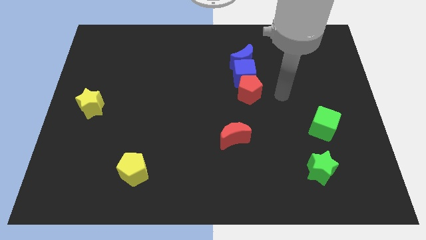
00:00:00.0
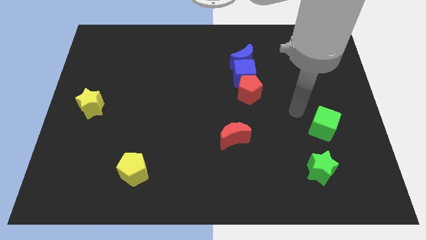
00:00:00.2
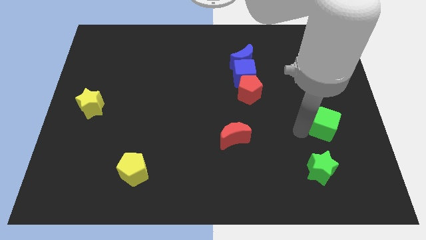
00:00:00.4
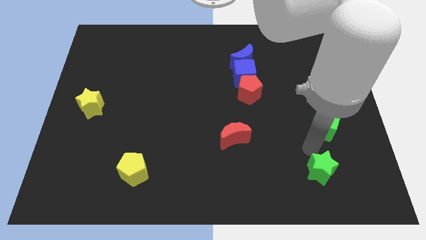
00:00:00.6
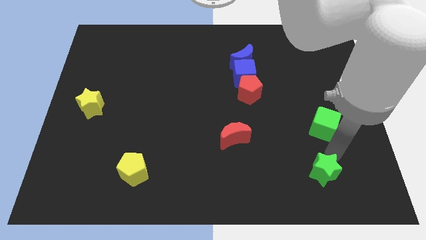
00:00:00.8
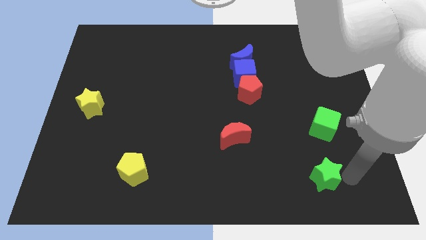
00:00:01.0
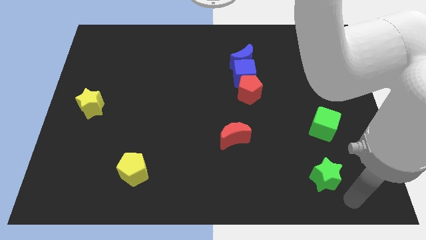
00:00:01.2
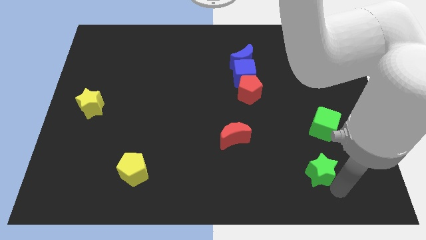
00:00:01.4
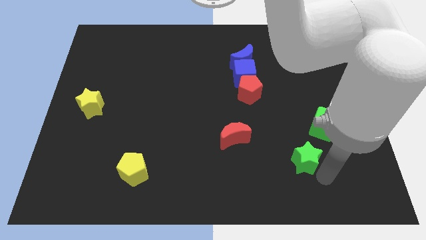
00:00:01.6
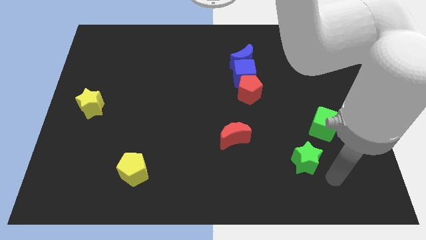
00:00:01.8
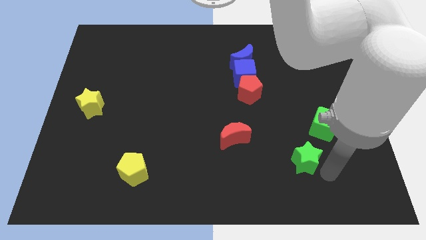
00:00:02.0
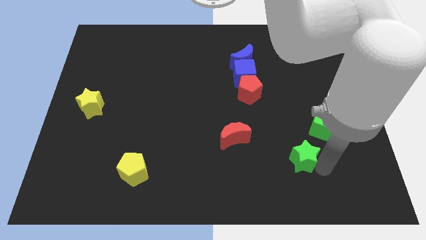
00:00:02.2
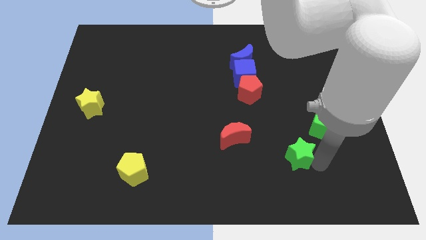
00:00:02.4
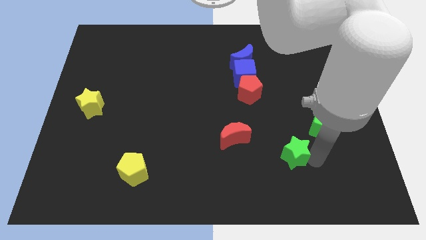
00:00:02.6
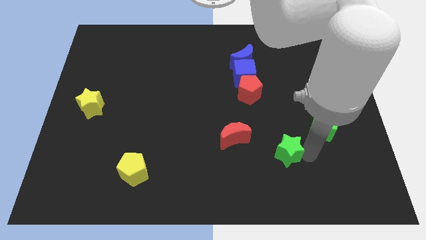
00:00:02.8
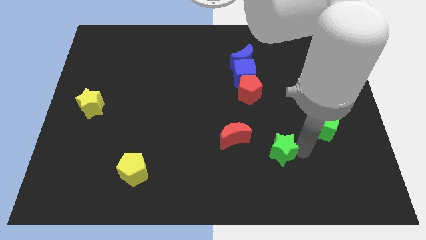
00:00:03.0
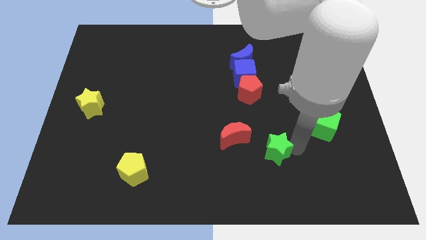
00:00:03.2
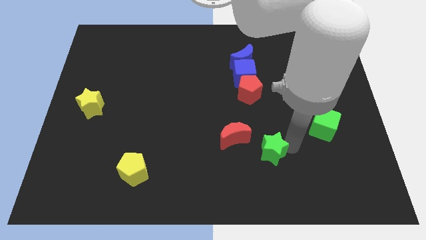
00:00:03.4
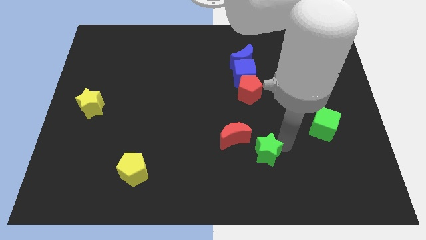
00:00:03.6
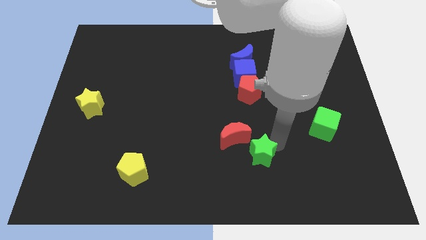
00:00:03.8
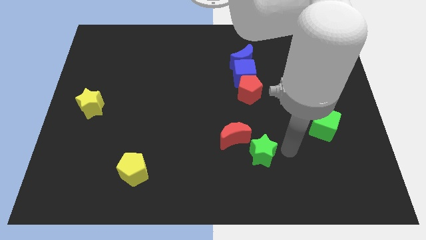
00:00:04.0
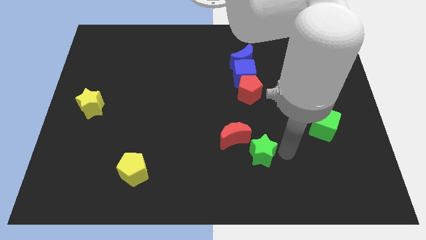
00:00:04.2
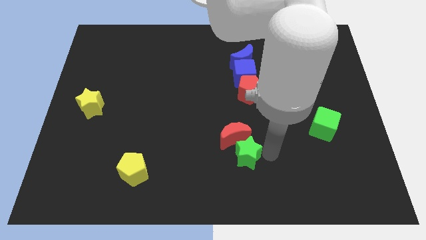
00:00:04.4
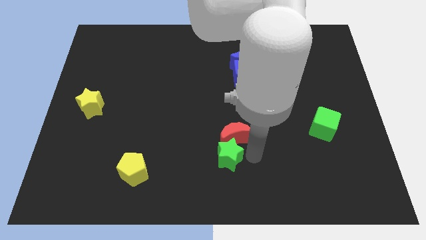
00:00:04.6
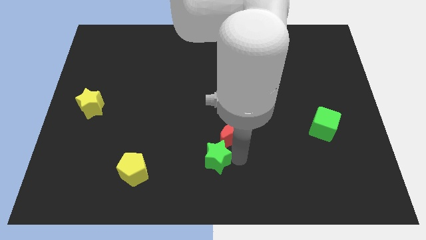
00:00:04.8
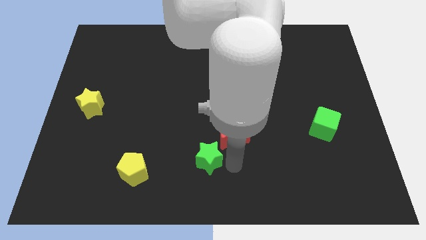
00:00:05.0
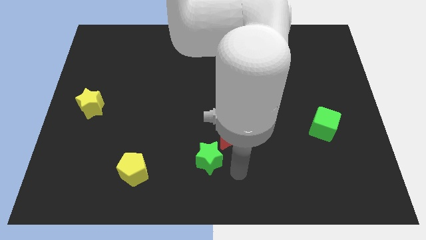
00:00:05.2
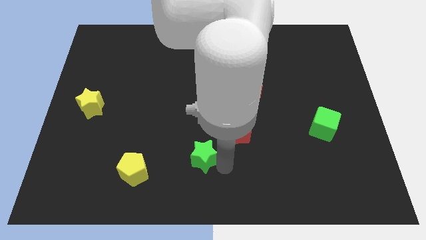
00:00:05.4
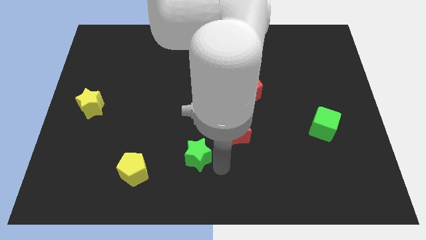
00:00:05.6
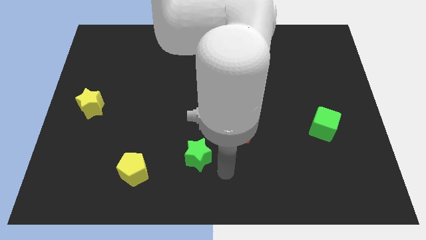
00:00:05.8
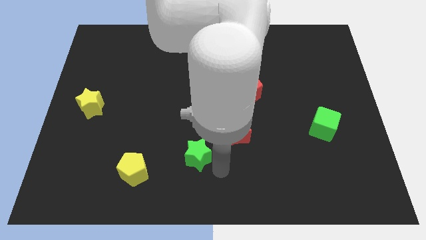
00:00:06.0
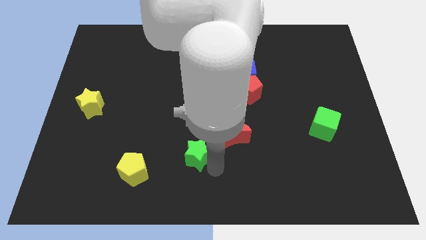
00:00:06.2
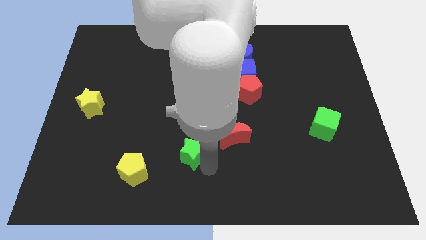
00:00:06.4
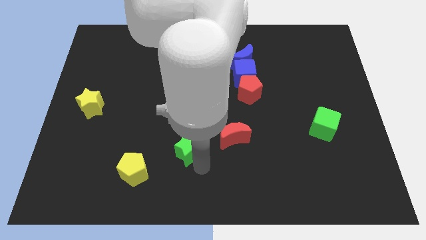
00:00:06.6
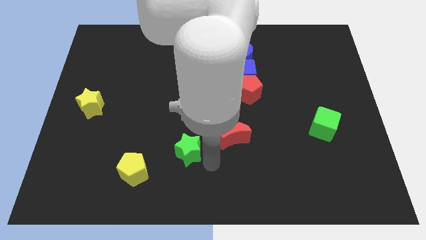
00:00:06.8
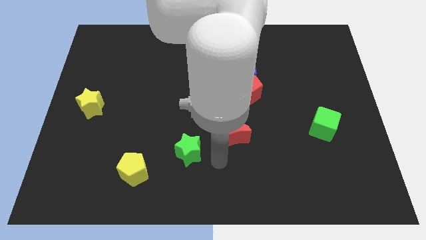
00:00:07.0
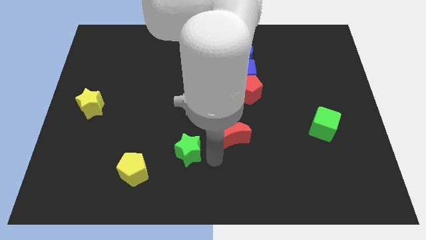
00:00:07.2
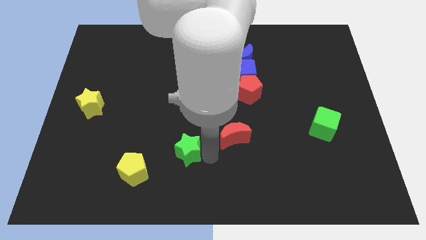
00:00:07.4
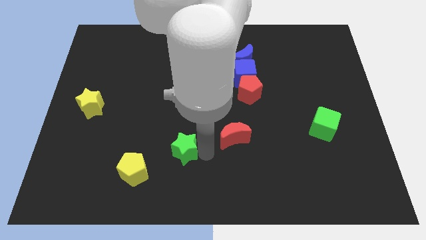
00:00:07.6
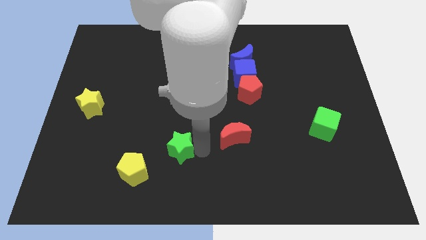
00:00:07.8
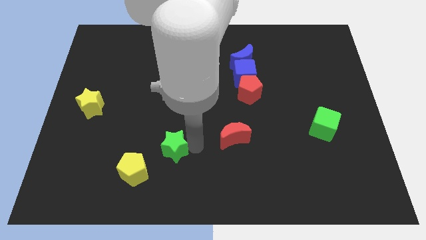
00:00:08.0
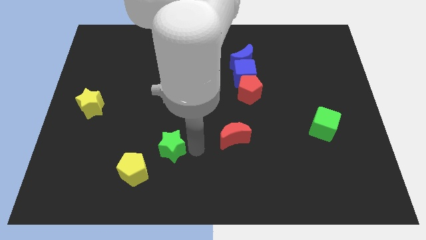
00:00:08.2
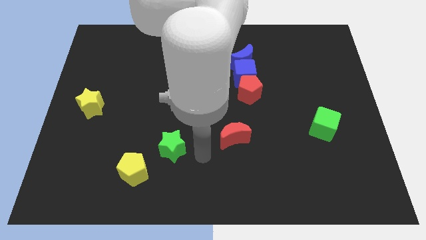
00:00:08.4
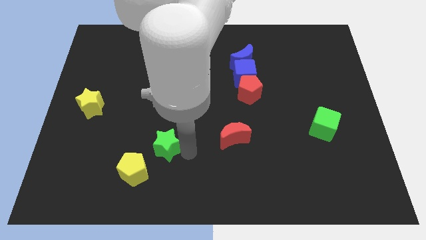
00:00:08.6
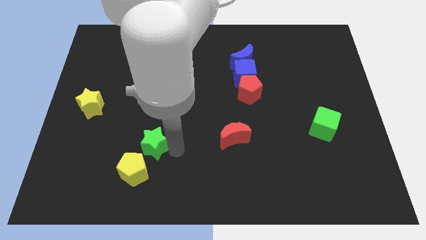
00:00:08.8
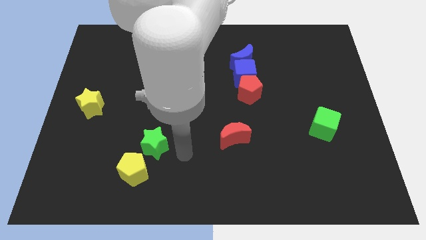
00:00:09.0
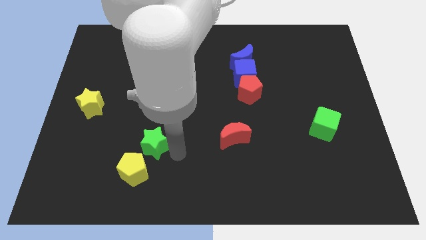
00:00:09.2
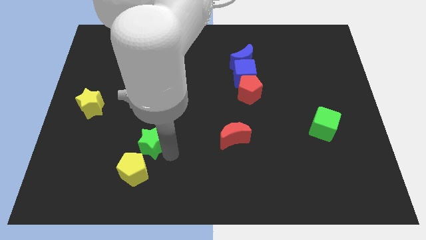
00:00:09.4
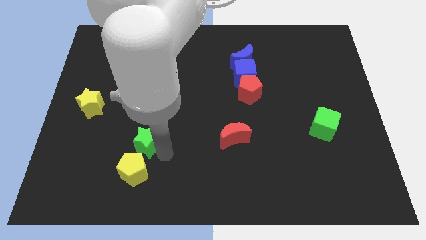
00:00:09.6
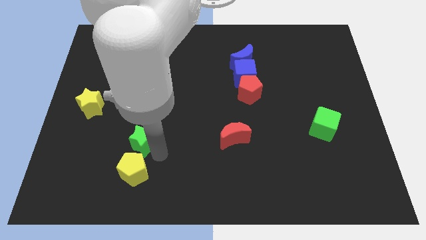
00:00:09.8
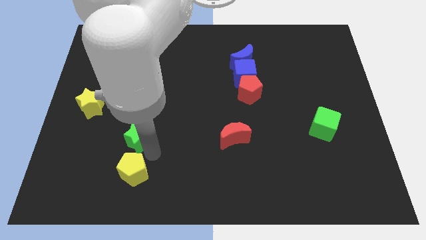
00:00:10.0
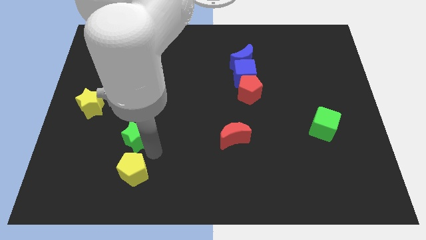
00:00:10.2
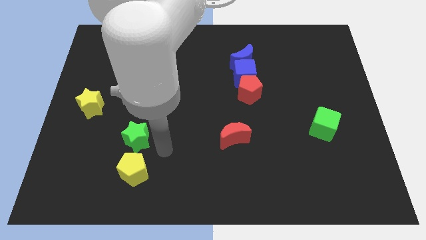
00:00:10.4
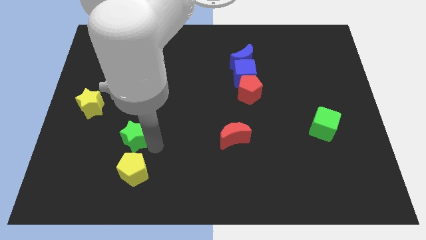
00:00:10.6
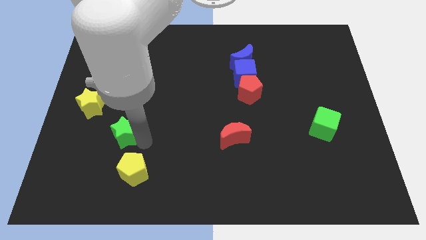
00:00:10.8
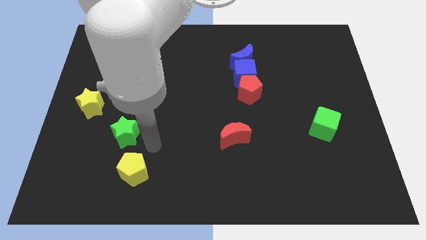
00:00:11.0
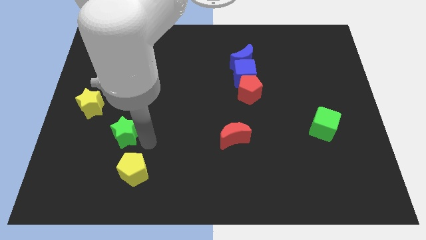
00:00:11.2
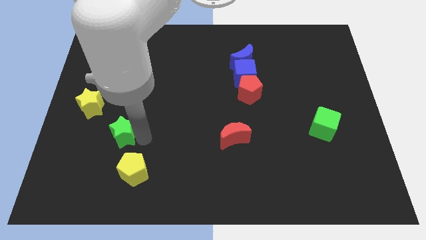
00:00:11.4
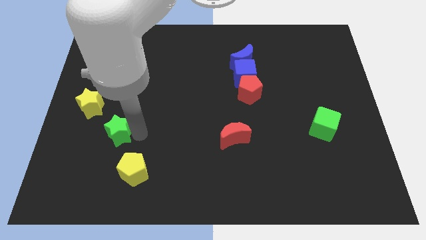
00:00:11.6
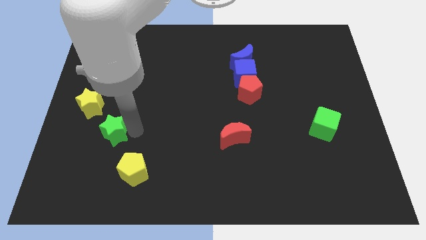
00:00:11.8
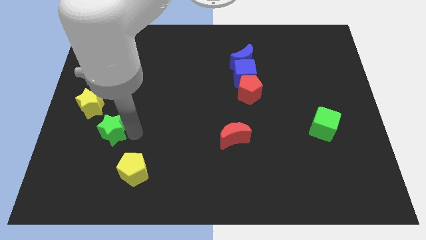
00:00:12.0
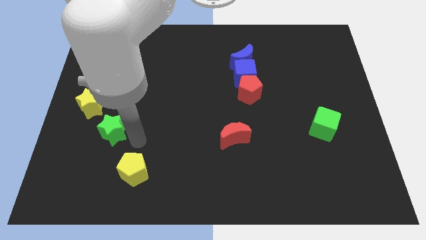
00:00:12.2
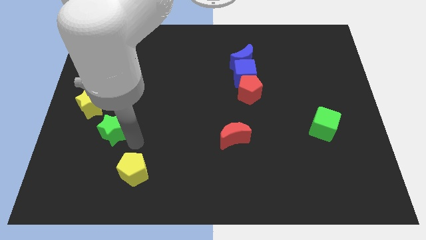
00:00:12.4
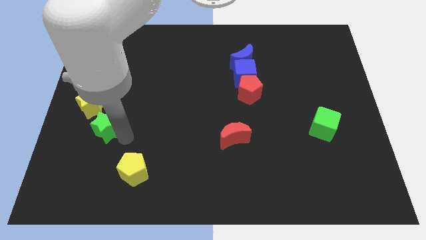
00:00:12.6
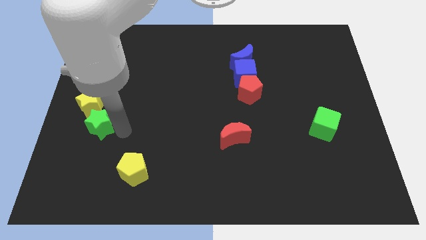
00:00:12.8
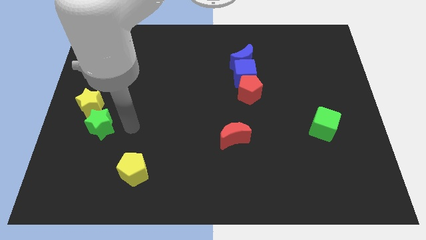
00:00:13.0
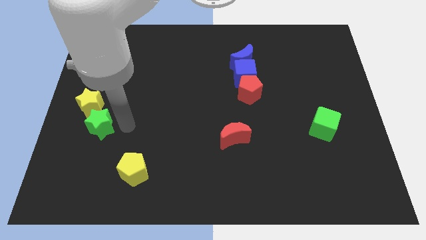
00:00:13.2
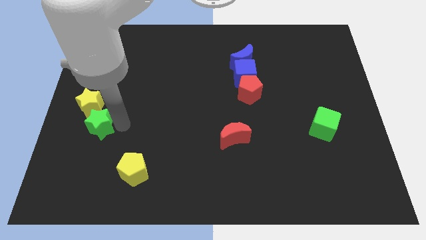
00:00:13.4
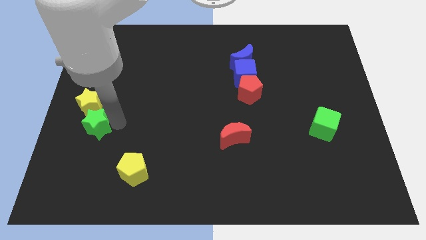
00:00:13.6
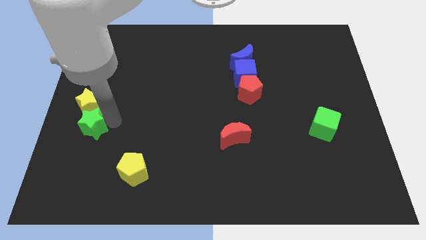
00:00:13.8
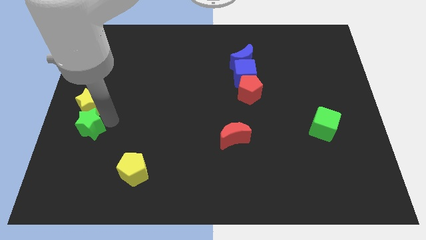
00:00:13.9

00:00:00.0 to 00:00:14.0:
move the green star to the left side

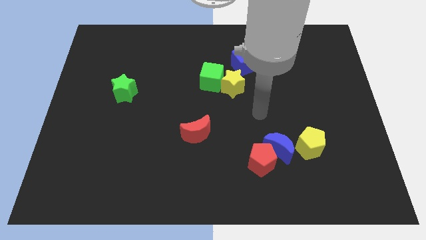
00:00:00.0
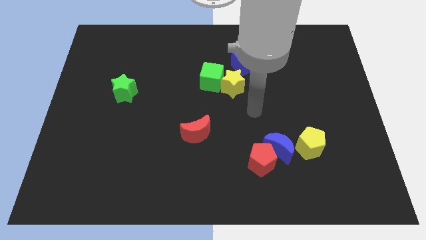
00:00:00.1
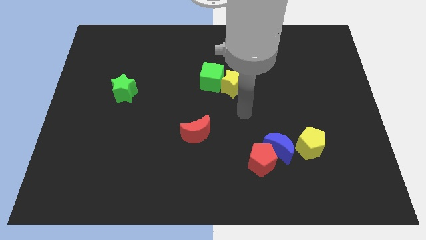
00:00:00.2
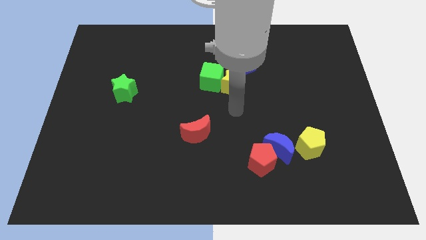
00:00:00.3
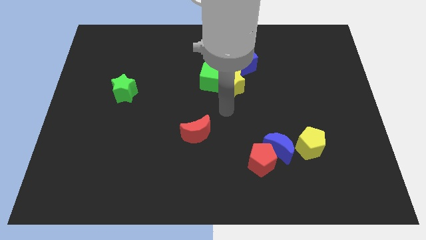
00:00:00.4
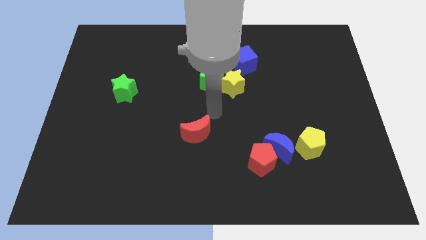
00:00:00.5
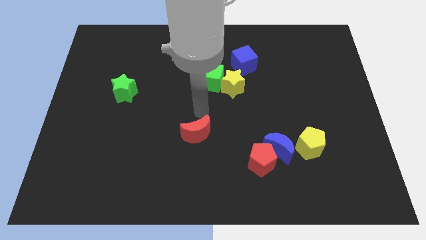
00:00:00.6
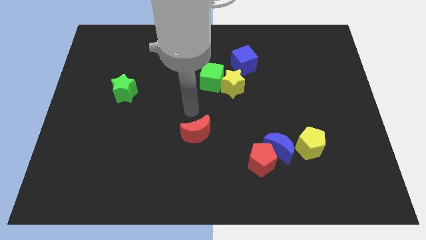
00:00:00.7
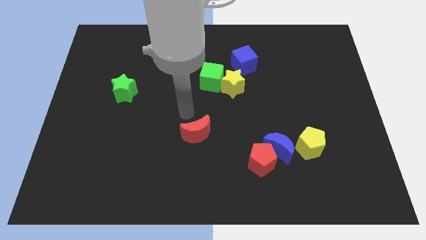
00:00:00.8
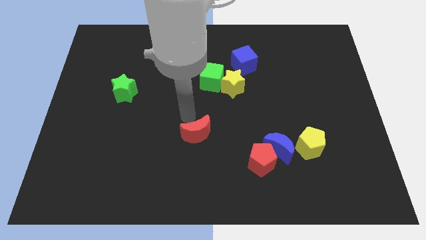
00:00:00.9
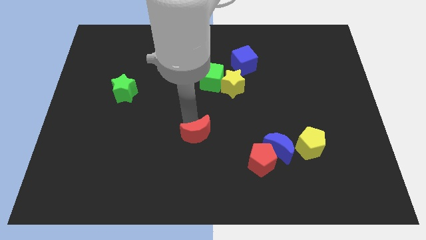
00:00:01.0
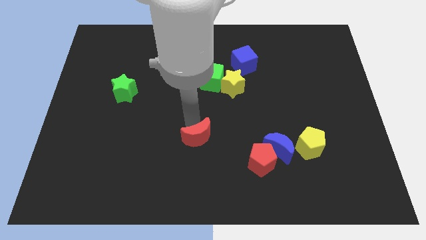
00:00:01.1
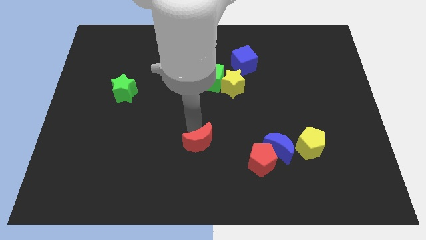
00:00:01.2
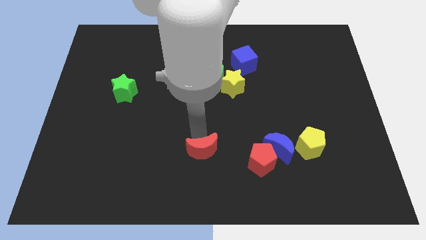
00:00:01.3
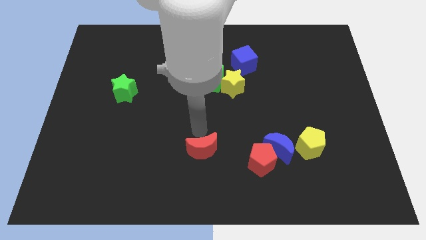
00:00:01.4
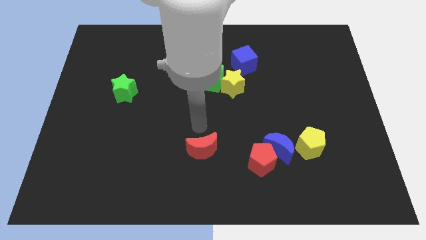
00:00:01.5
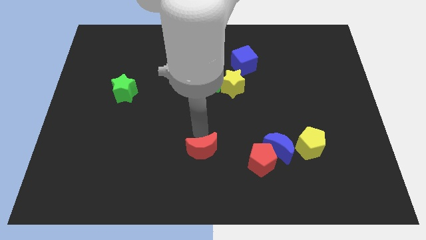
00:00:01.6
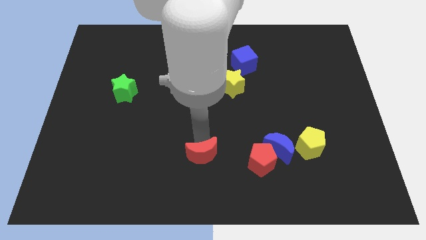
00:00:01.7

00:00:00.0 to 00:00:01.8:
slide the red moon to the bottom side
